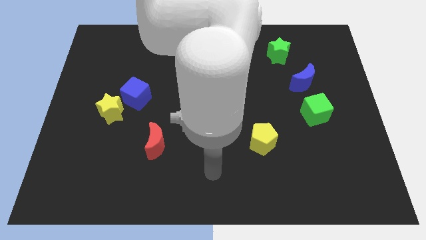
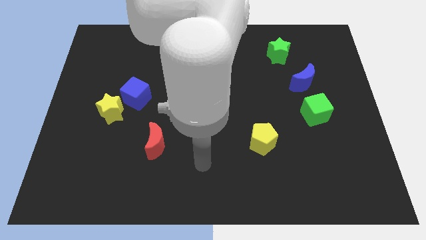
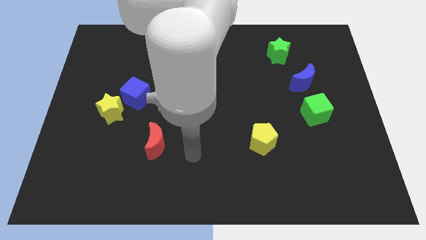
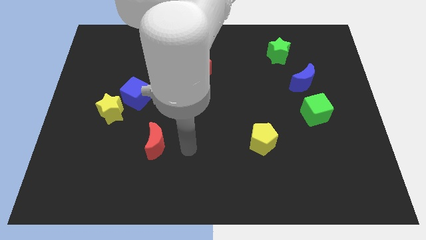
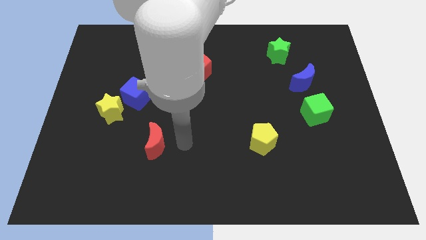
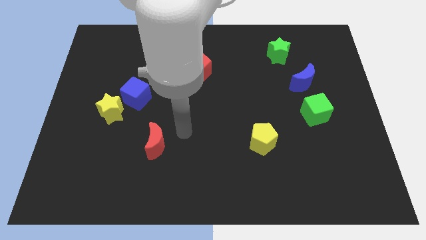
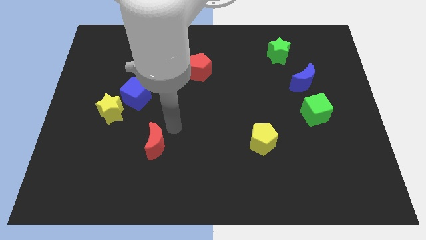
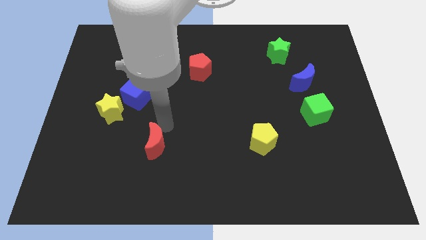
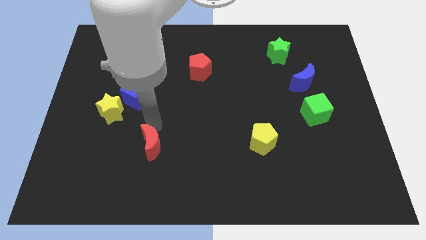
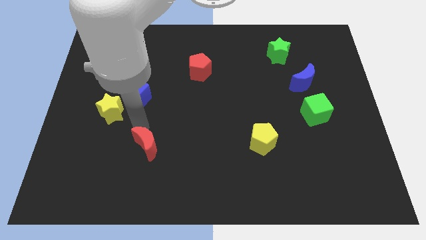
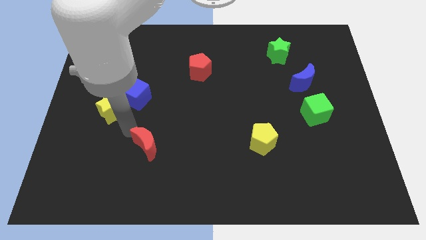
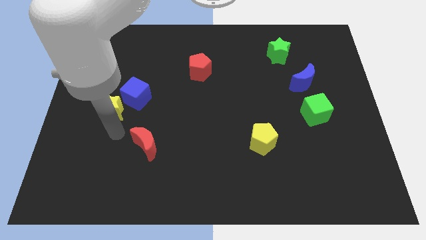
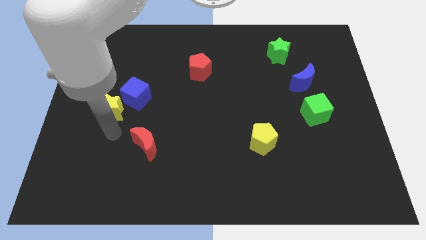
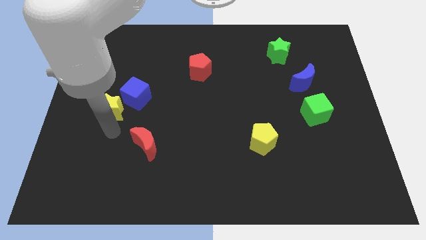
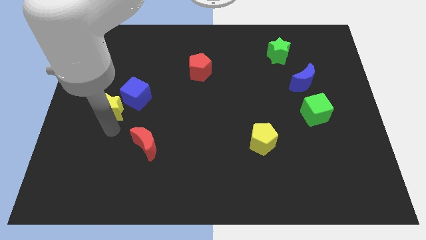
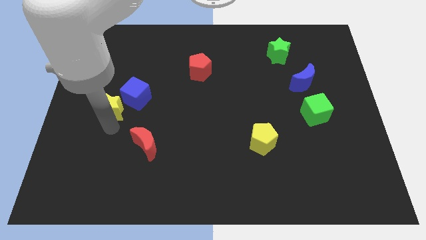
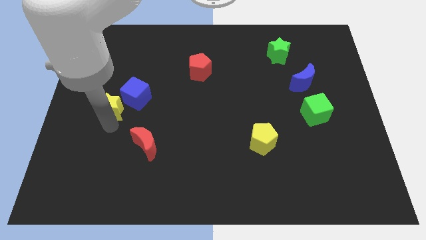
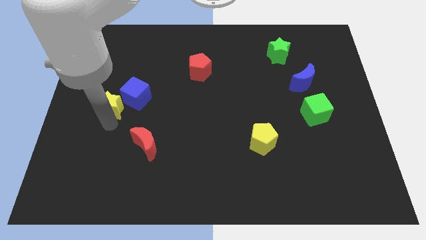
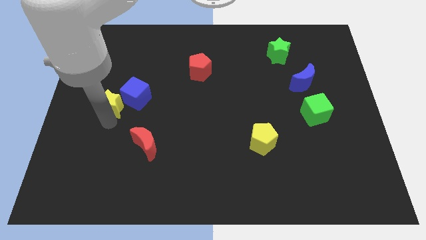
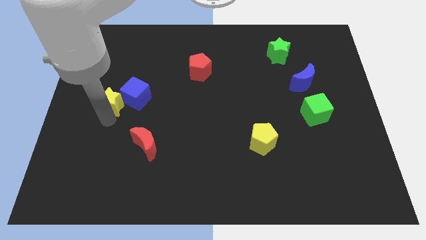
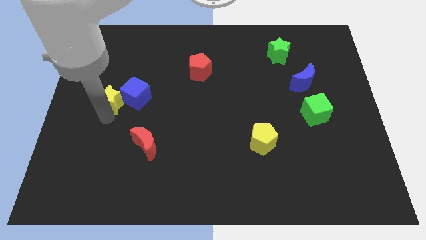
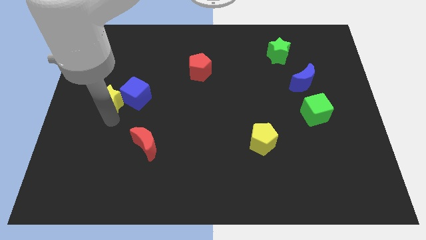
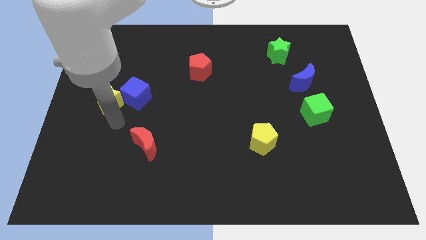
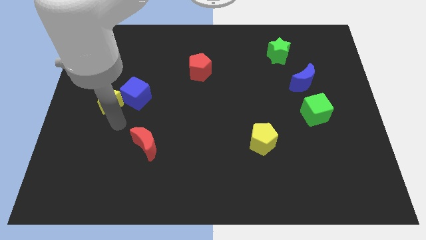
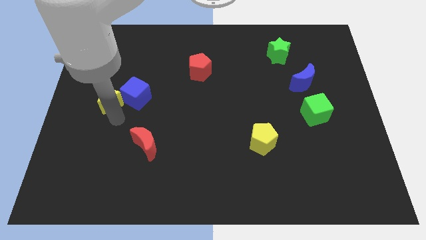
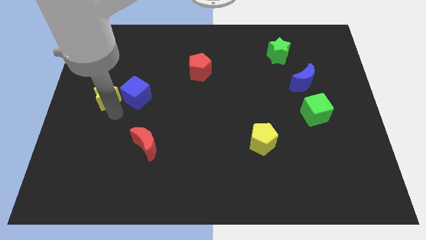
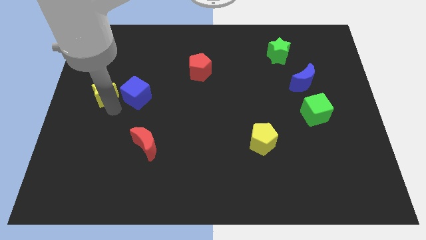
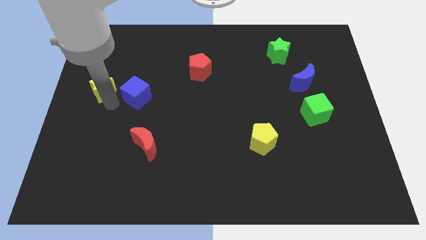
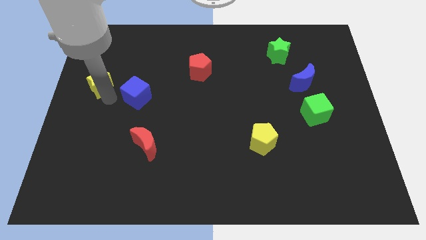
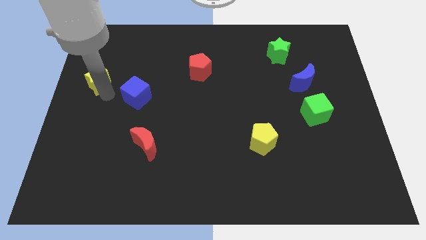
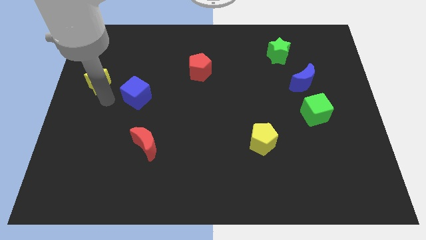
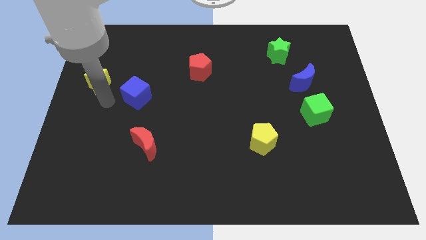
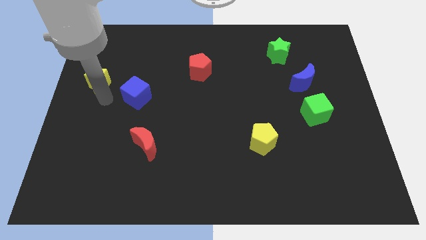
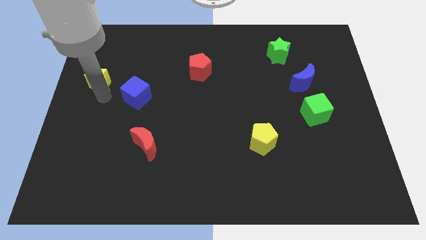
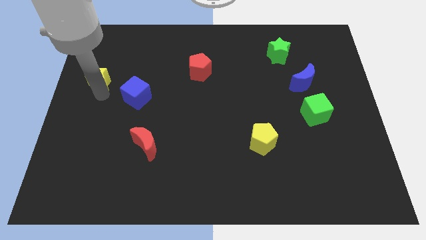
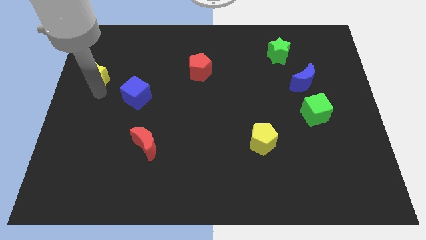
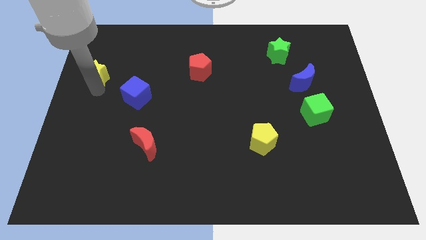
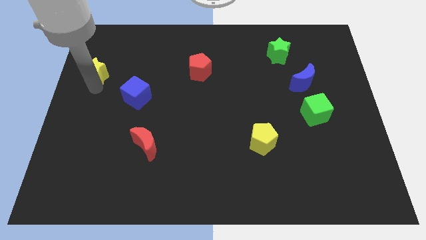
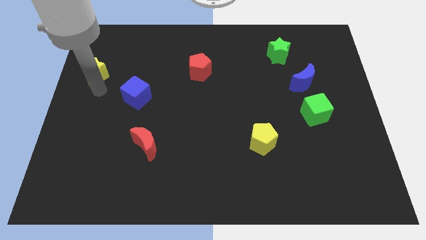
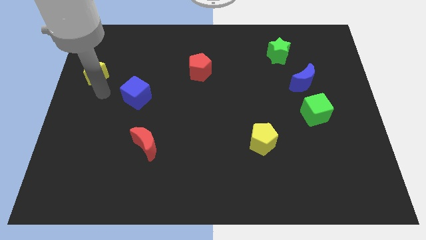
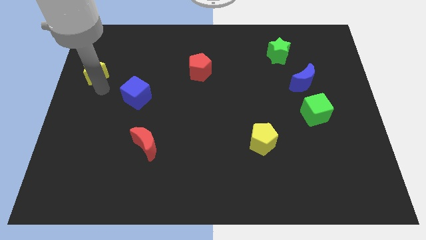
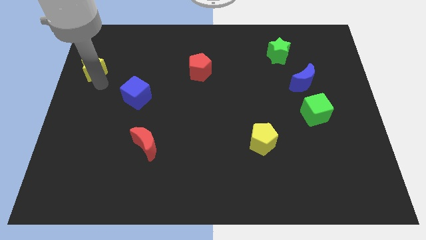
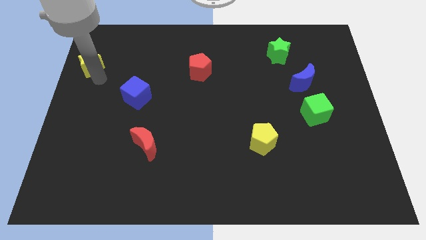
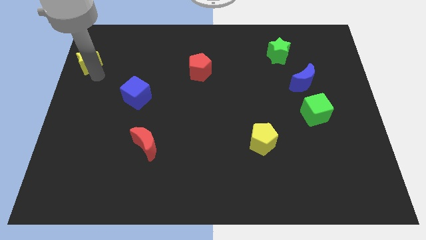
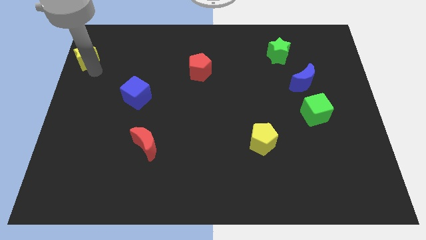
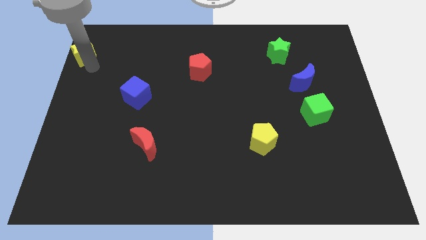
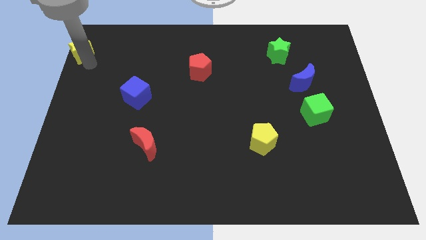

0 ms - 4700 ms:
push the yellow star to the top left of the board

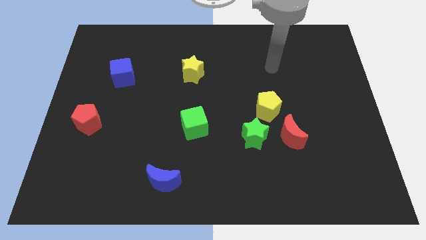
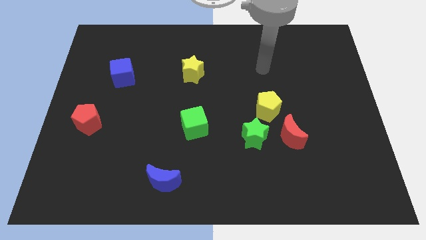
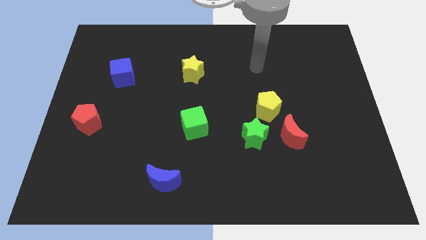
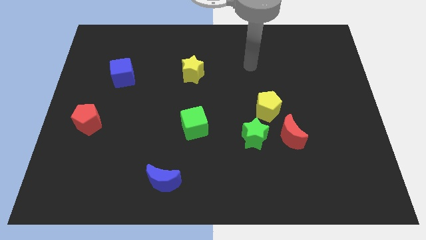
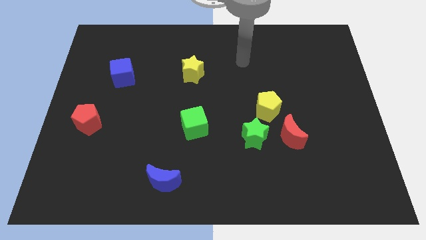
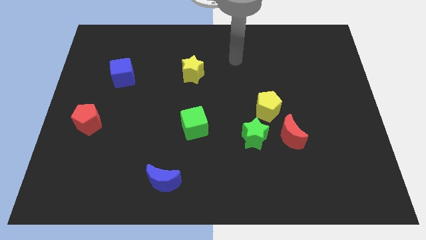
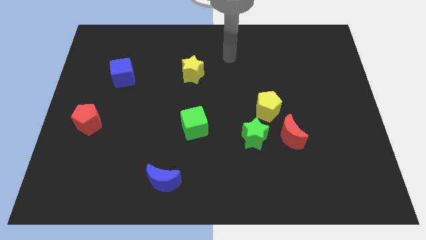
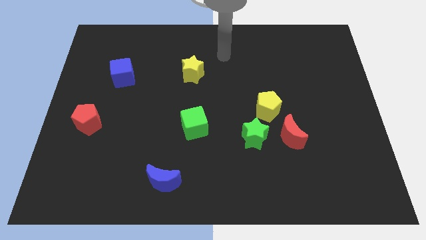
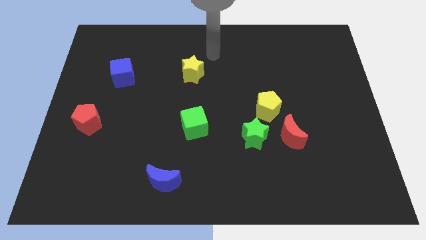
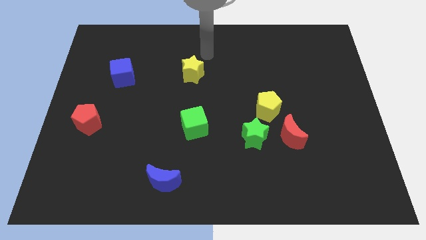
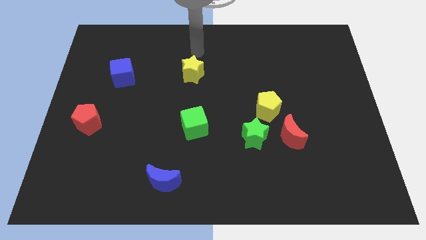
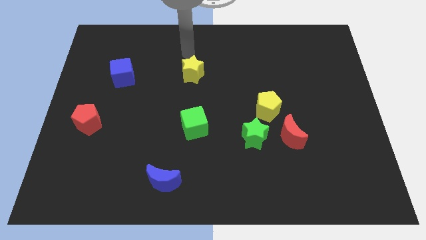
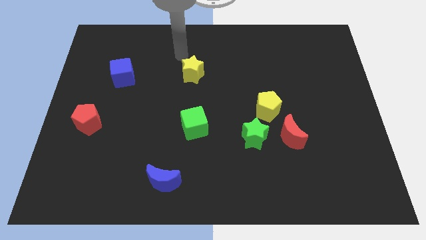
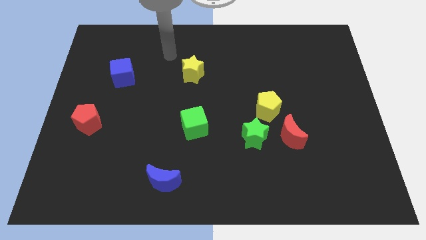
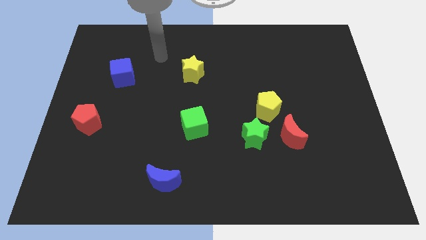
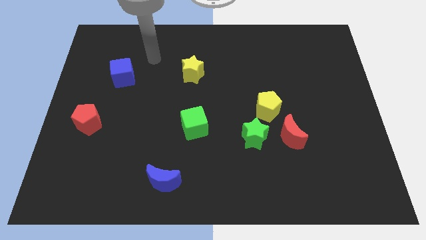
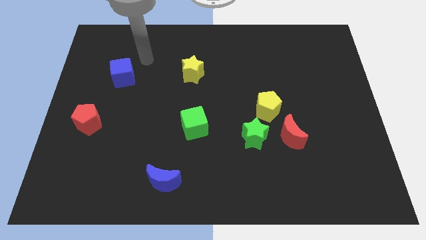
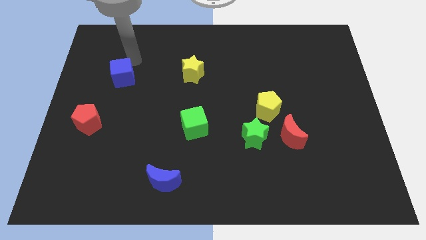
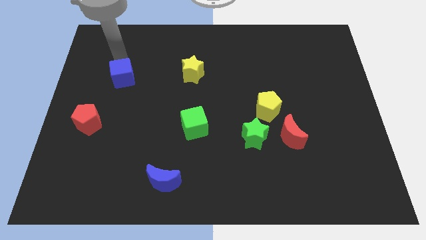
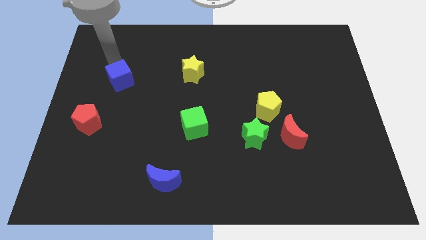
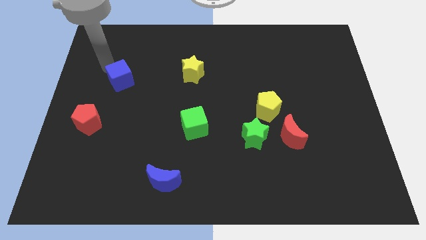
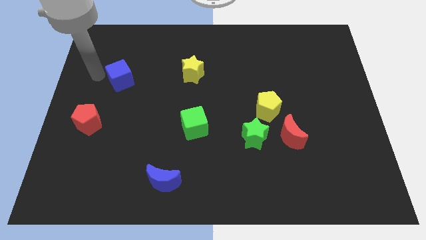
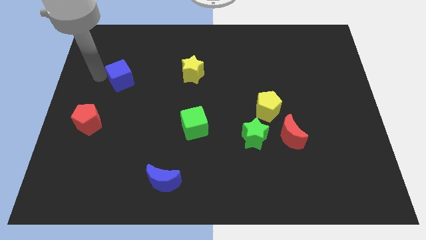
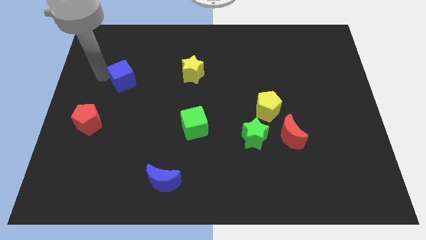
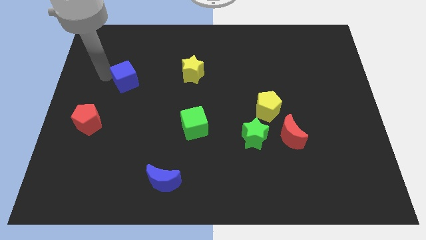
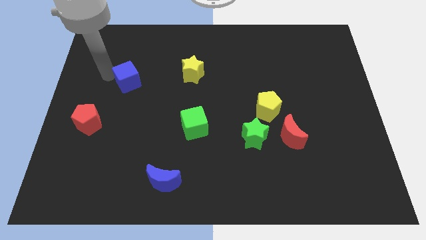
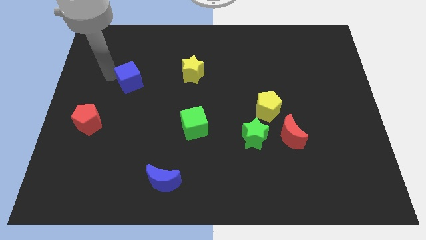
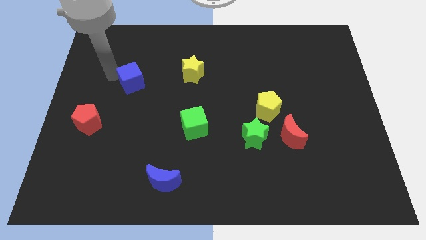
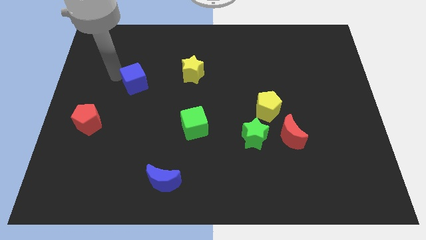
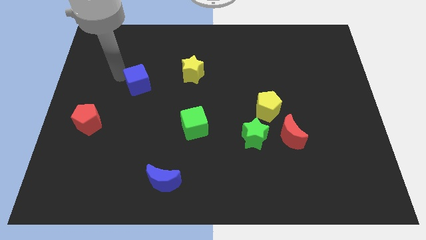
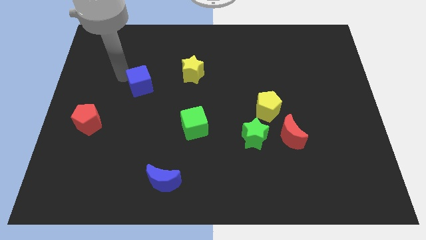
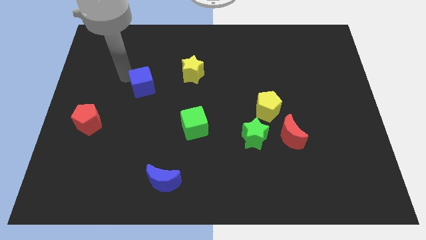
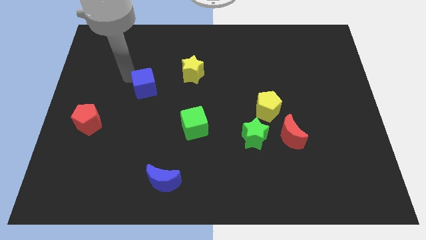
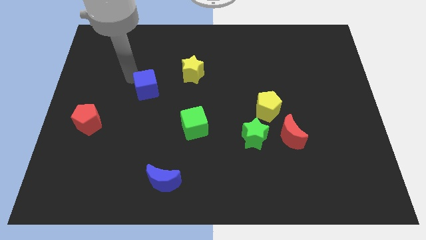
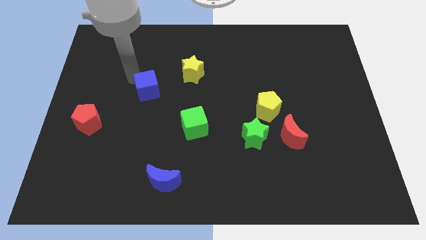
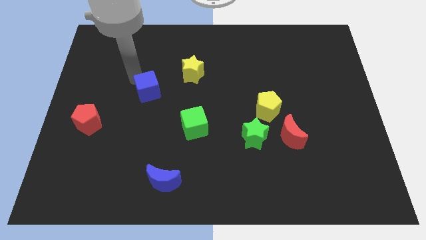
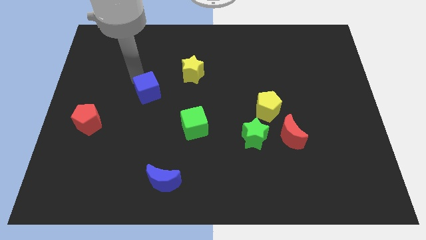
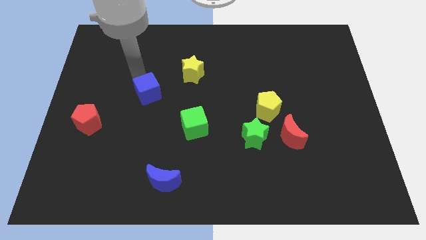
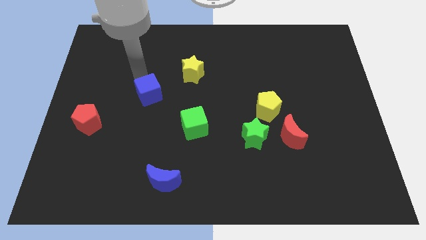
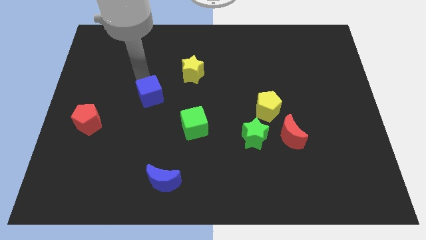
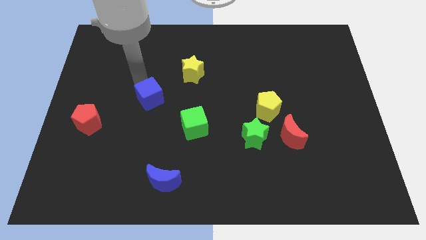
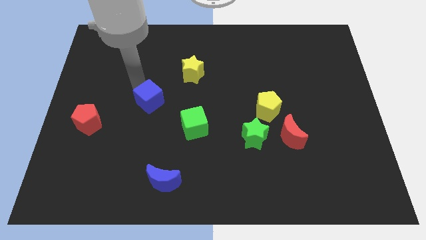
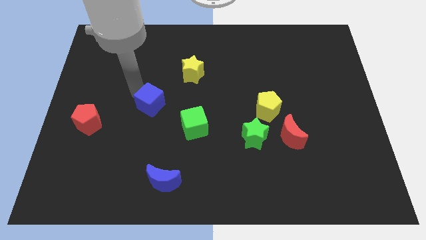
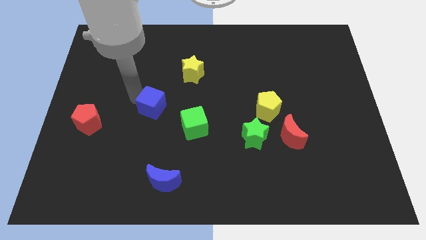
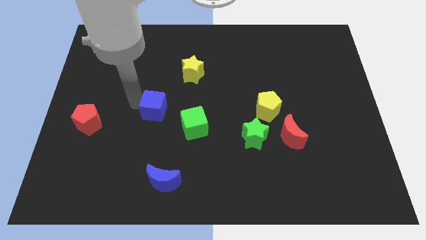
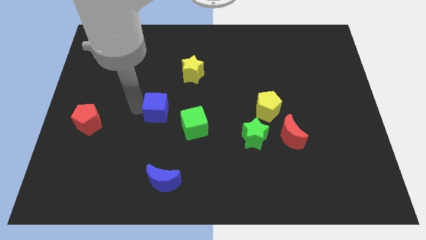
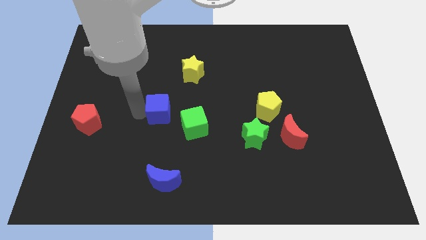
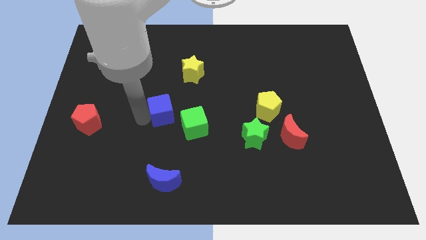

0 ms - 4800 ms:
push the blue cube to the middle of the board
